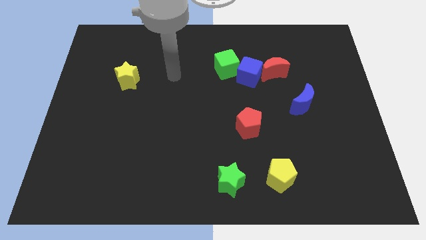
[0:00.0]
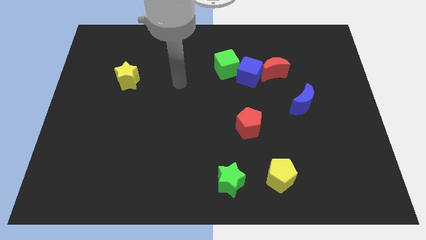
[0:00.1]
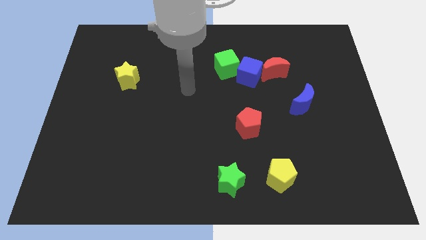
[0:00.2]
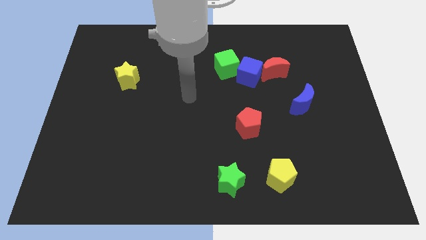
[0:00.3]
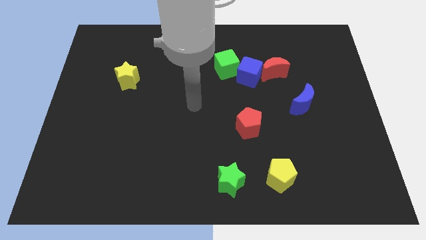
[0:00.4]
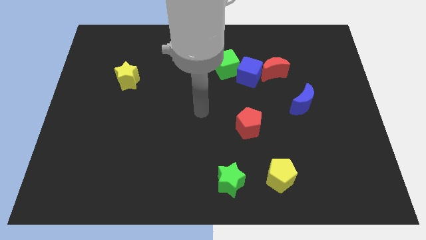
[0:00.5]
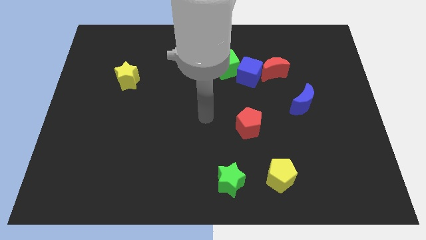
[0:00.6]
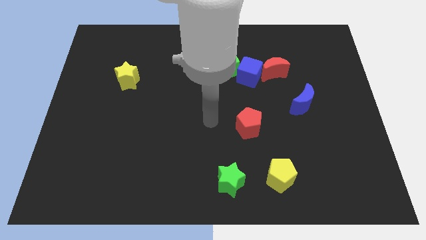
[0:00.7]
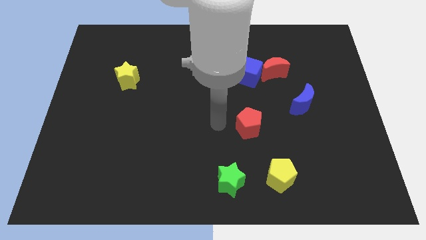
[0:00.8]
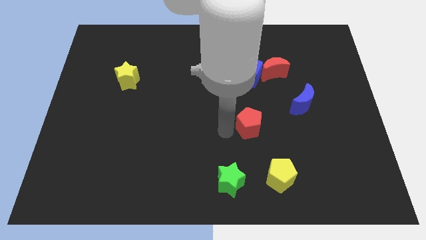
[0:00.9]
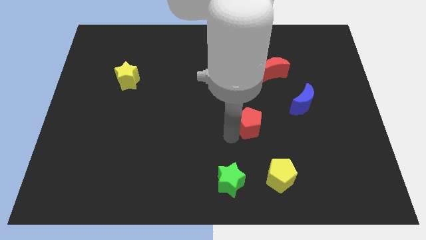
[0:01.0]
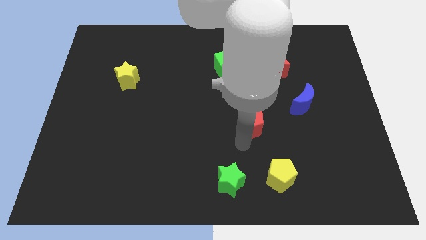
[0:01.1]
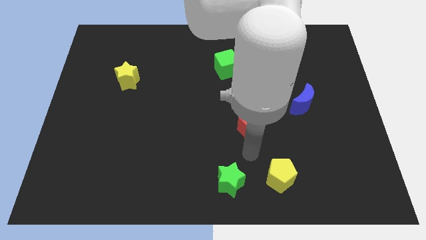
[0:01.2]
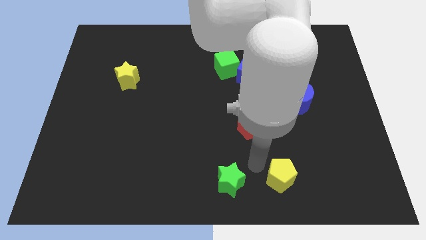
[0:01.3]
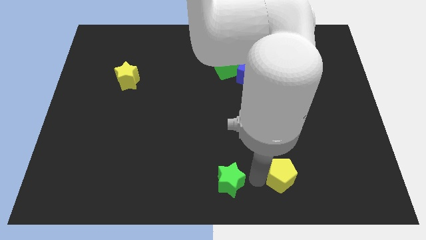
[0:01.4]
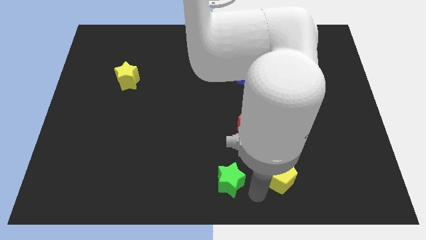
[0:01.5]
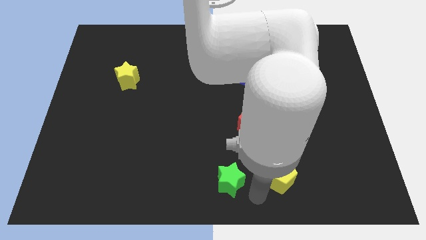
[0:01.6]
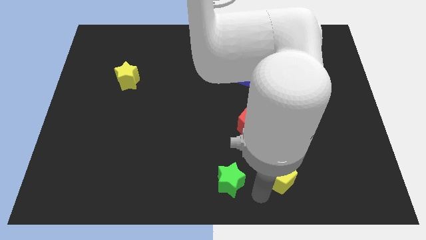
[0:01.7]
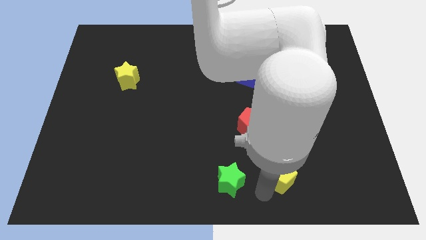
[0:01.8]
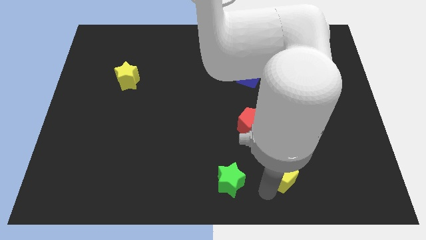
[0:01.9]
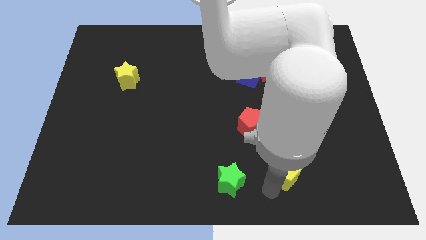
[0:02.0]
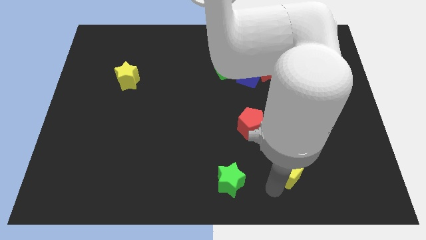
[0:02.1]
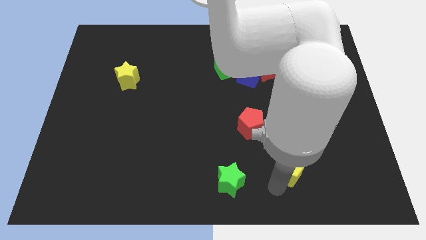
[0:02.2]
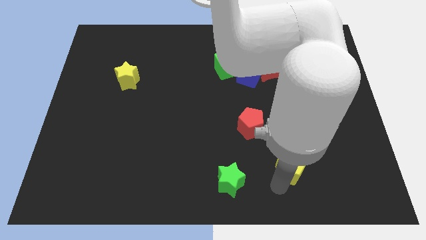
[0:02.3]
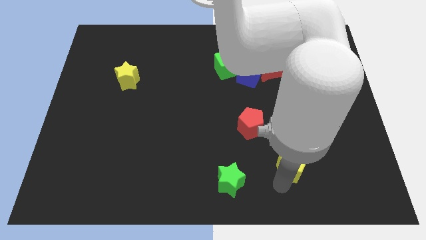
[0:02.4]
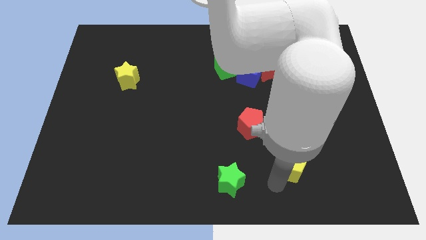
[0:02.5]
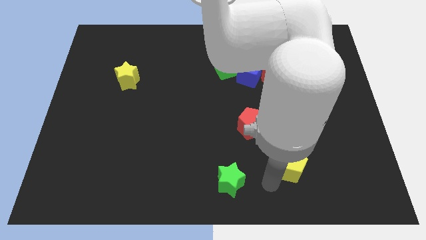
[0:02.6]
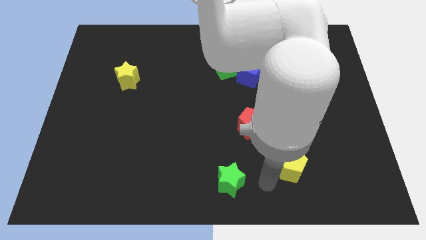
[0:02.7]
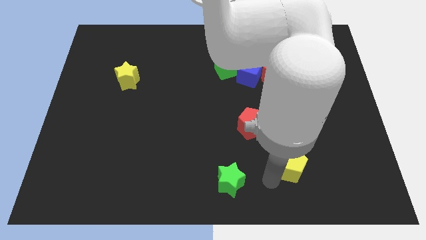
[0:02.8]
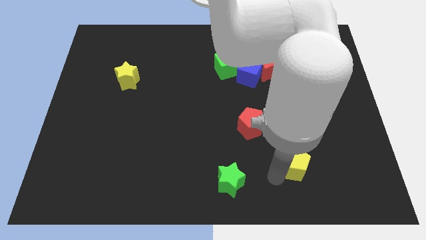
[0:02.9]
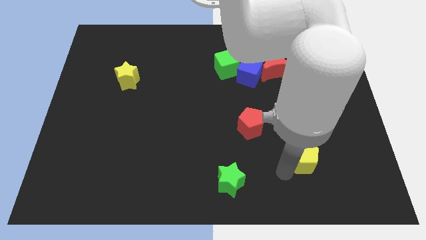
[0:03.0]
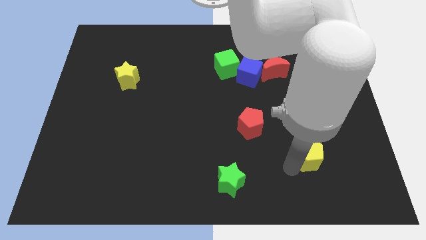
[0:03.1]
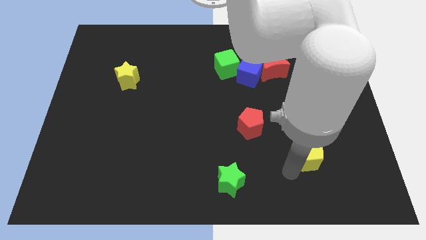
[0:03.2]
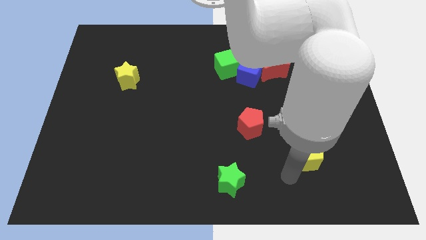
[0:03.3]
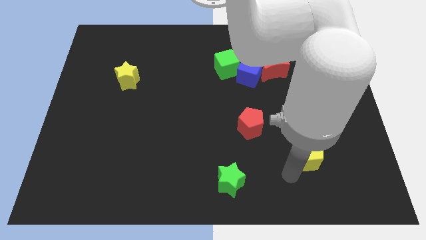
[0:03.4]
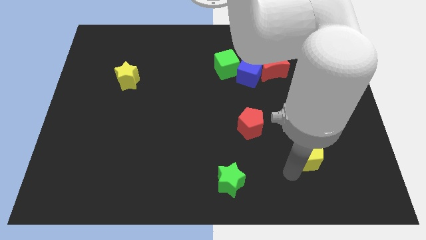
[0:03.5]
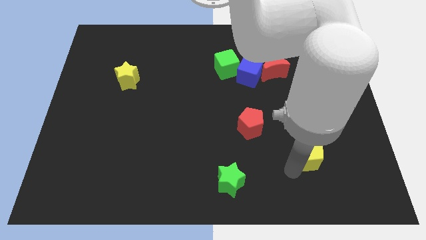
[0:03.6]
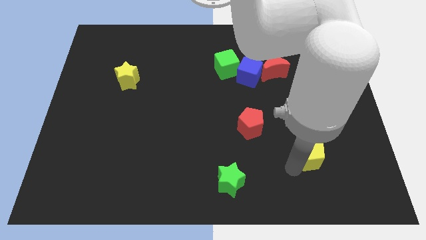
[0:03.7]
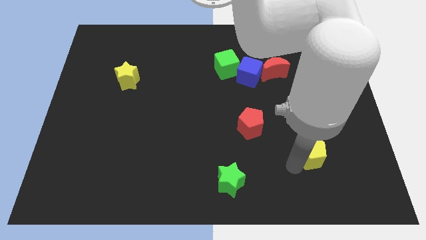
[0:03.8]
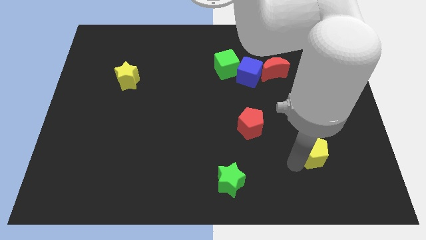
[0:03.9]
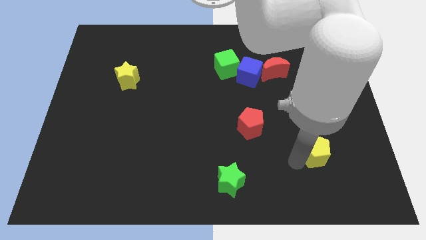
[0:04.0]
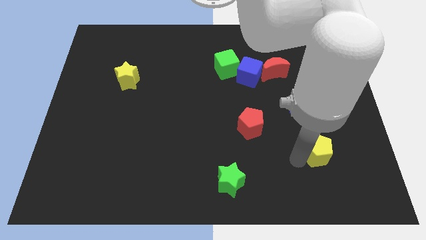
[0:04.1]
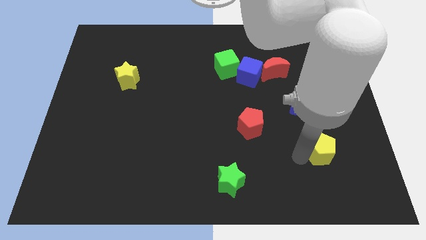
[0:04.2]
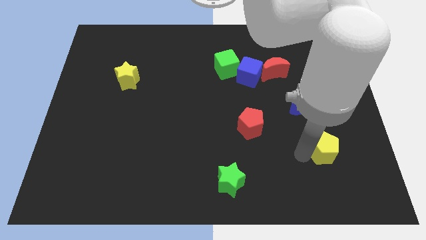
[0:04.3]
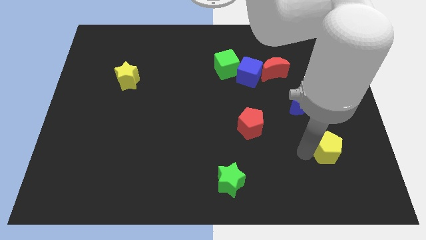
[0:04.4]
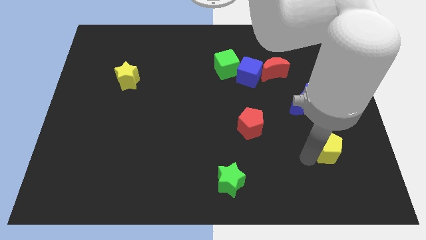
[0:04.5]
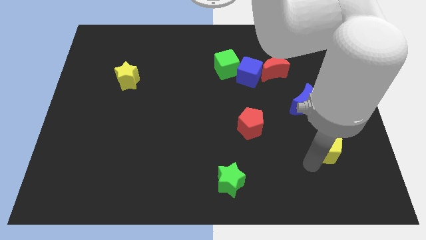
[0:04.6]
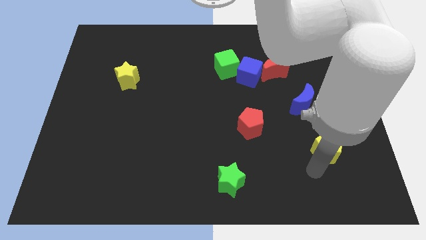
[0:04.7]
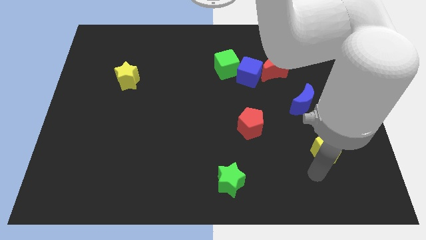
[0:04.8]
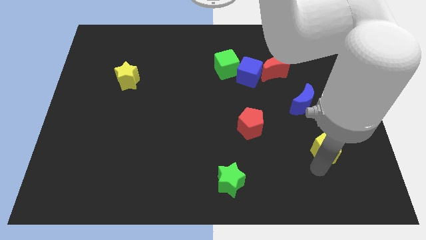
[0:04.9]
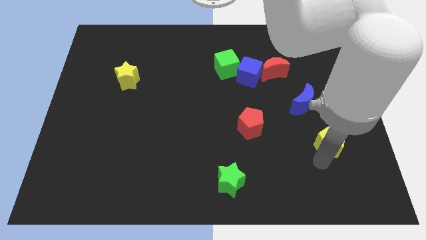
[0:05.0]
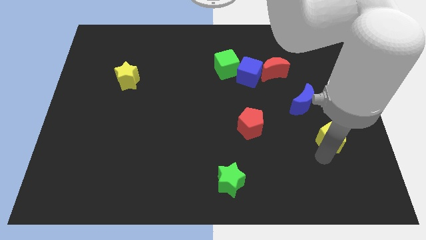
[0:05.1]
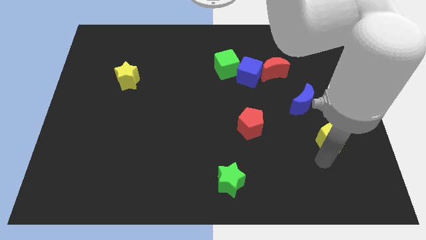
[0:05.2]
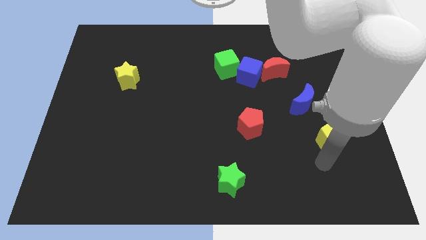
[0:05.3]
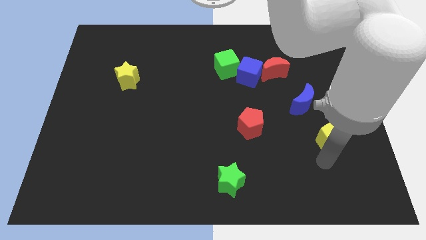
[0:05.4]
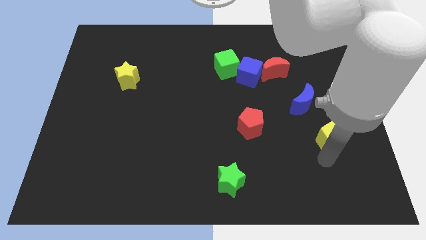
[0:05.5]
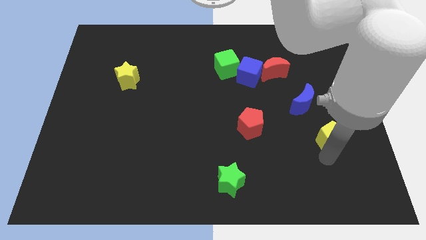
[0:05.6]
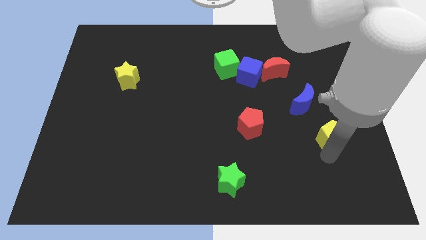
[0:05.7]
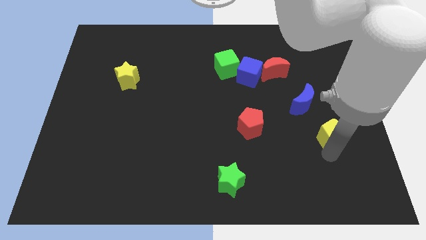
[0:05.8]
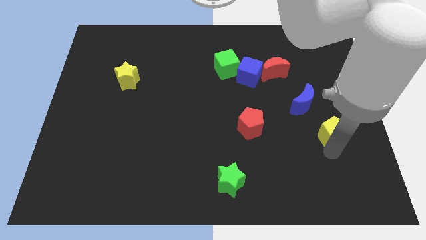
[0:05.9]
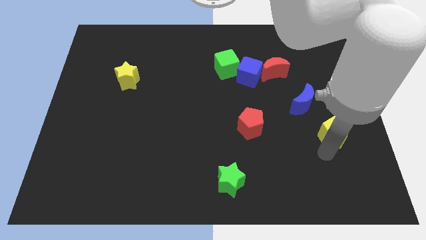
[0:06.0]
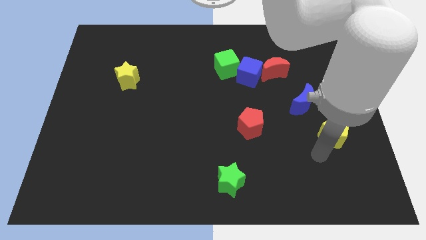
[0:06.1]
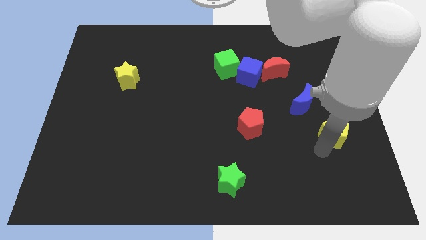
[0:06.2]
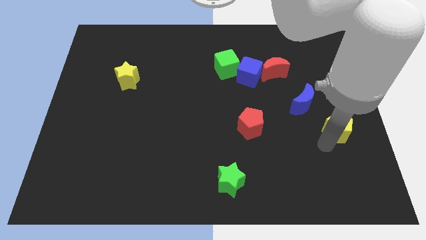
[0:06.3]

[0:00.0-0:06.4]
move the yellow pentagon to the right side of the board
